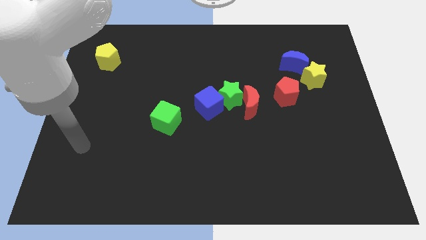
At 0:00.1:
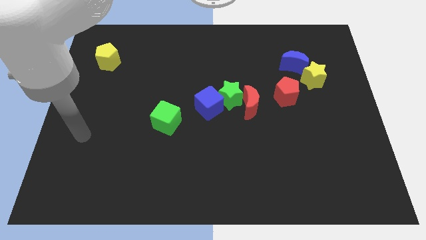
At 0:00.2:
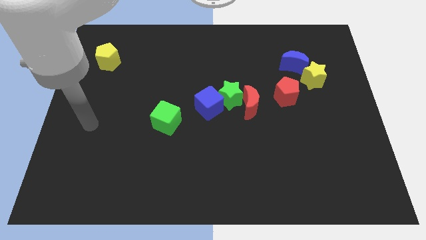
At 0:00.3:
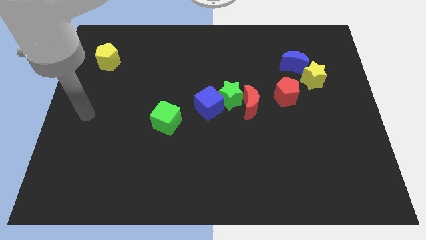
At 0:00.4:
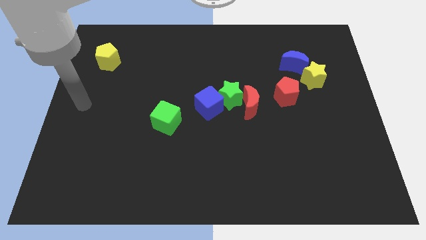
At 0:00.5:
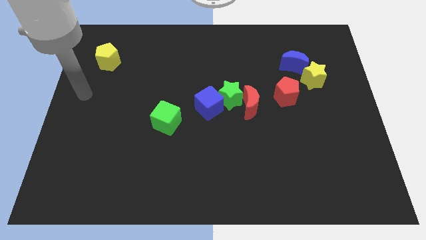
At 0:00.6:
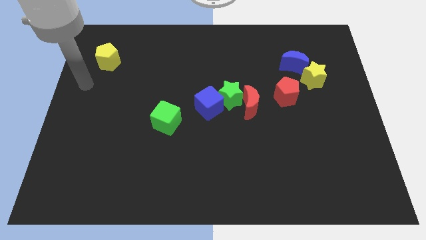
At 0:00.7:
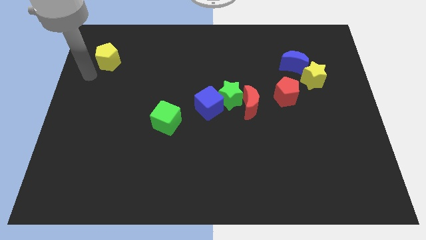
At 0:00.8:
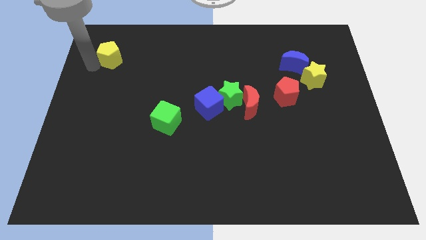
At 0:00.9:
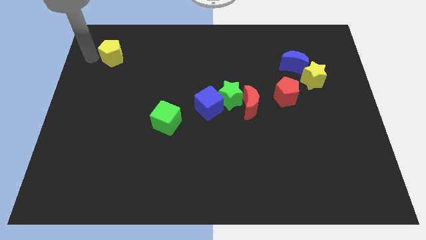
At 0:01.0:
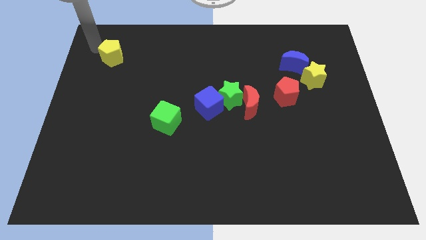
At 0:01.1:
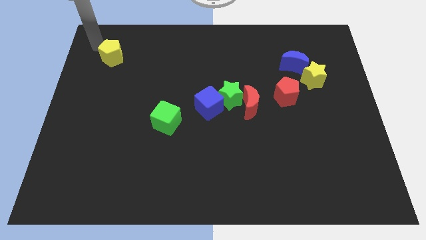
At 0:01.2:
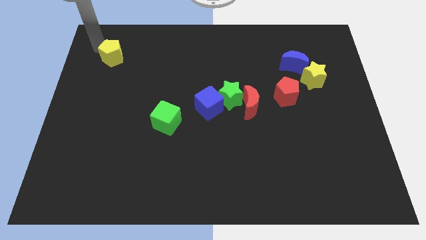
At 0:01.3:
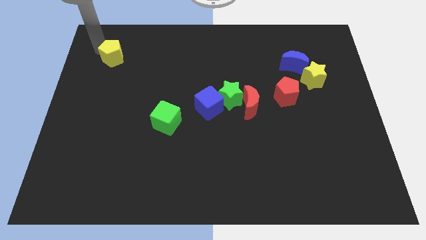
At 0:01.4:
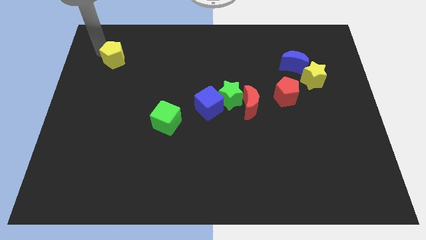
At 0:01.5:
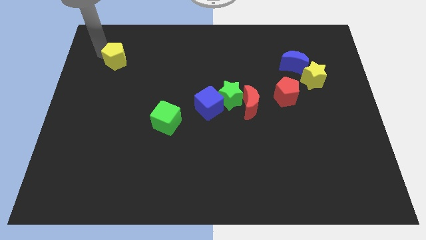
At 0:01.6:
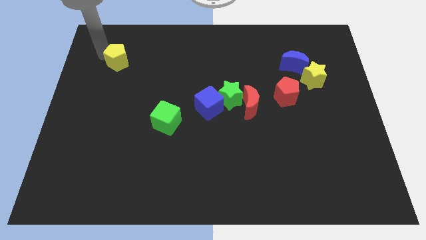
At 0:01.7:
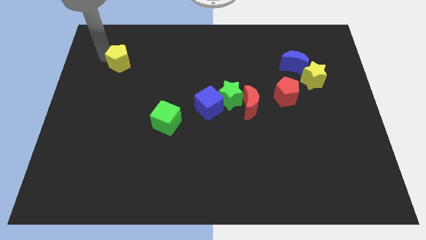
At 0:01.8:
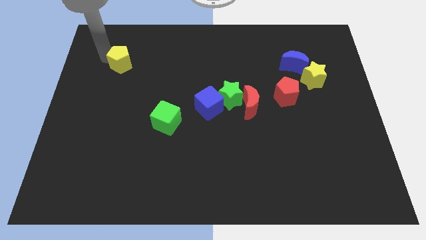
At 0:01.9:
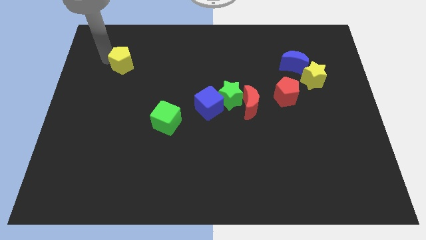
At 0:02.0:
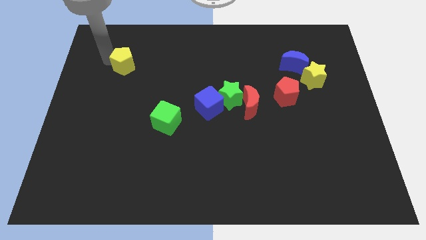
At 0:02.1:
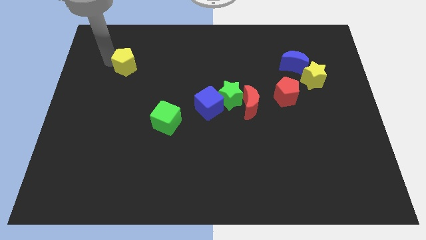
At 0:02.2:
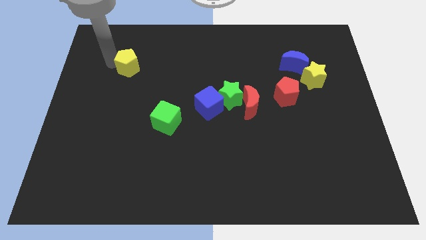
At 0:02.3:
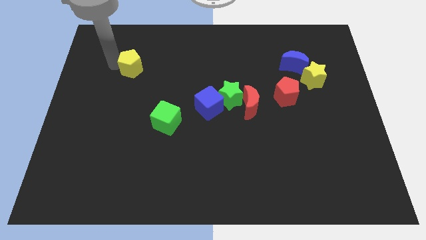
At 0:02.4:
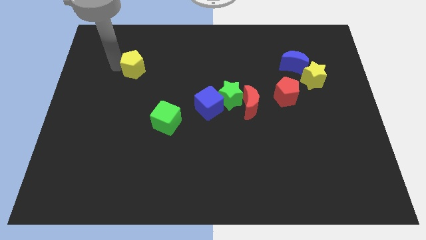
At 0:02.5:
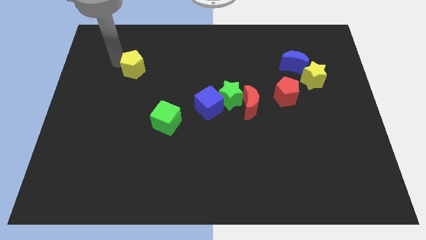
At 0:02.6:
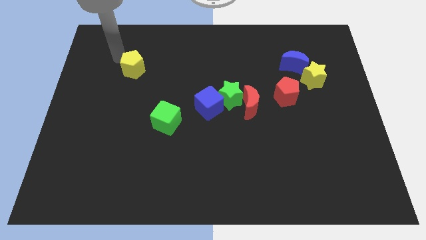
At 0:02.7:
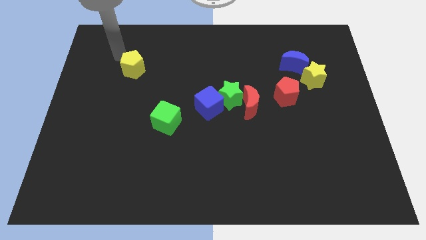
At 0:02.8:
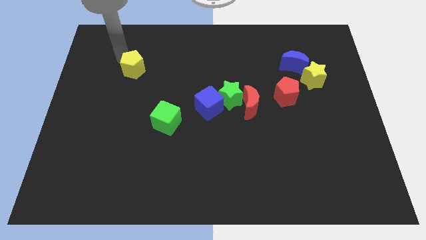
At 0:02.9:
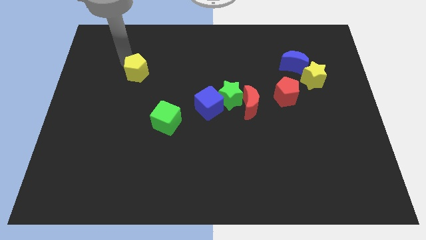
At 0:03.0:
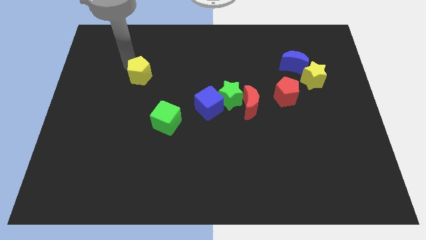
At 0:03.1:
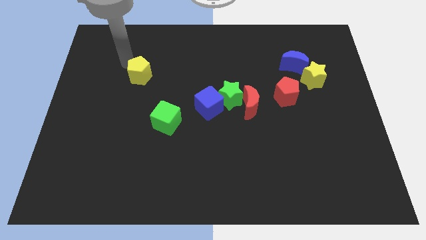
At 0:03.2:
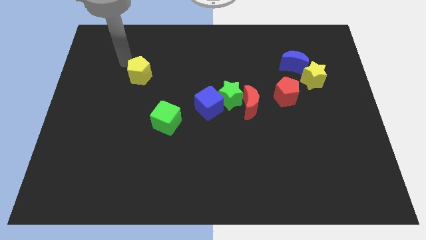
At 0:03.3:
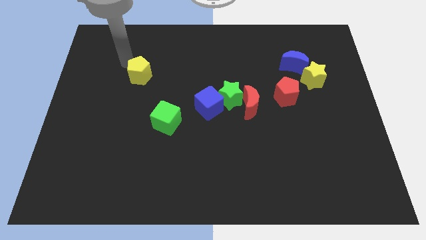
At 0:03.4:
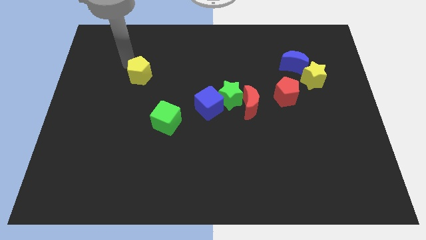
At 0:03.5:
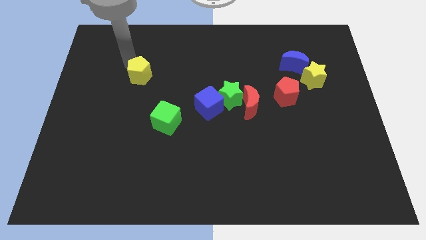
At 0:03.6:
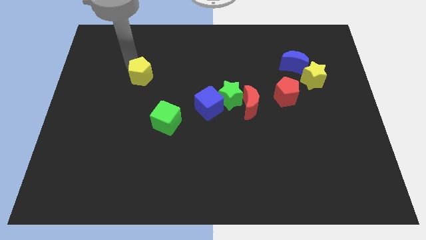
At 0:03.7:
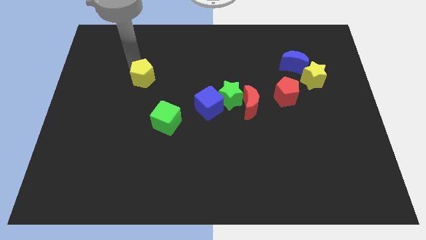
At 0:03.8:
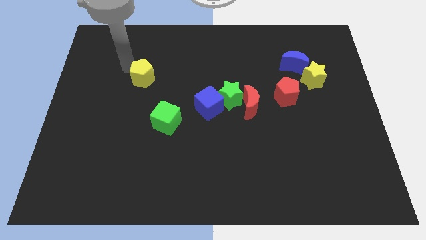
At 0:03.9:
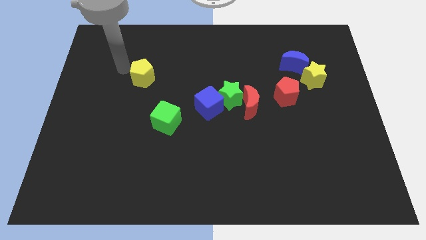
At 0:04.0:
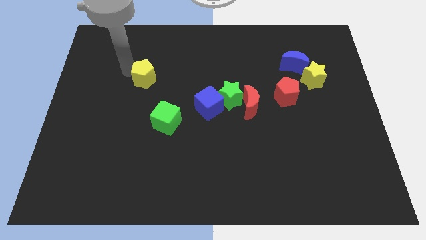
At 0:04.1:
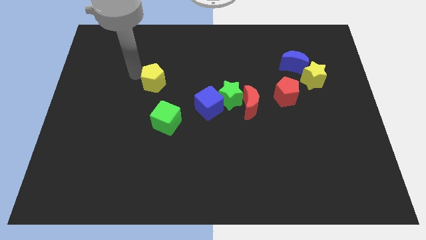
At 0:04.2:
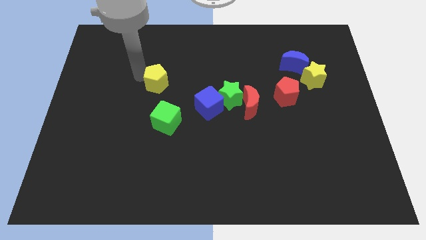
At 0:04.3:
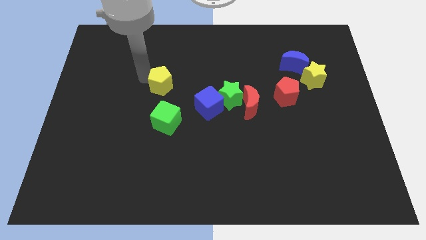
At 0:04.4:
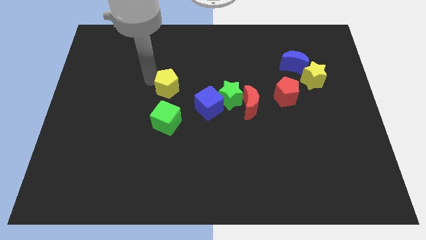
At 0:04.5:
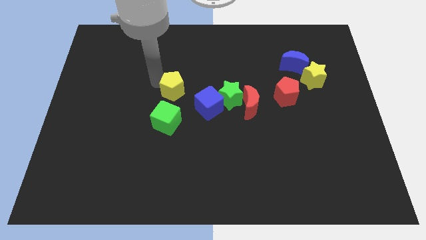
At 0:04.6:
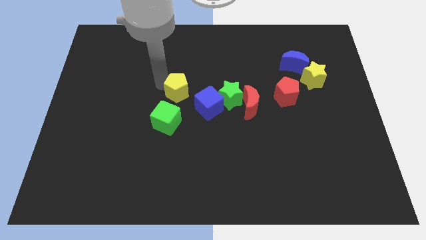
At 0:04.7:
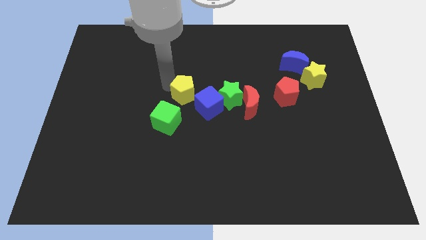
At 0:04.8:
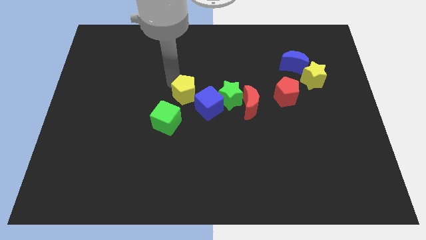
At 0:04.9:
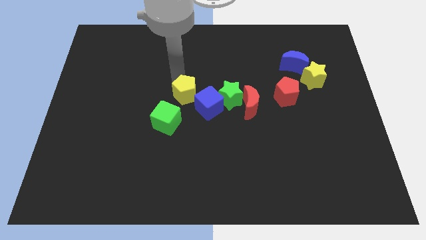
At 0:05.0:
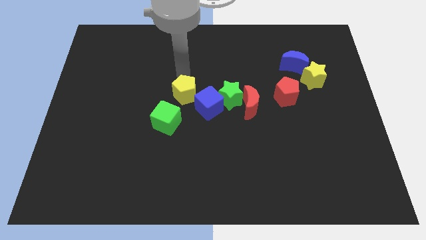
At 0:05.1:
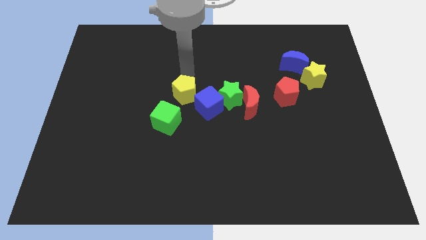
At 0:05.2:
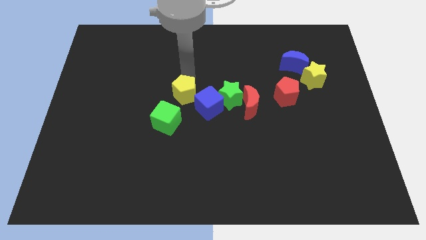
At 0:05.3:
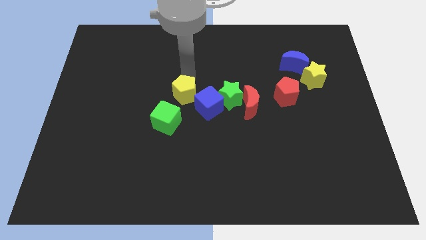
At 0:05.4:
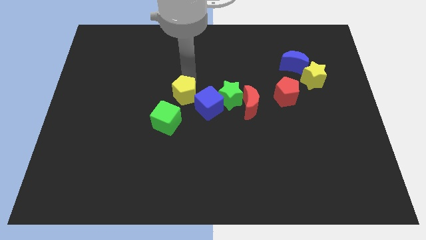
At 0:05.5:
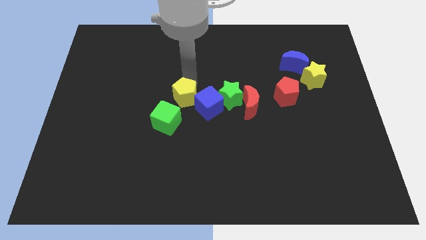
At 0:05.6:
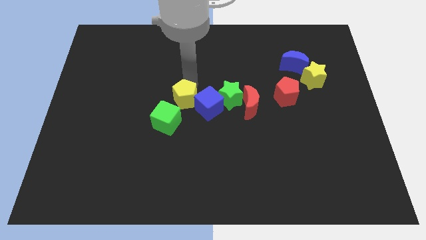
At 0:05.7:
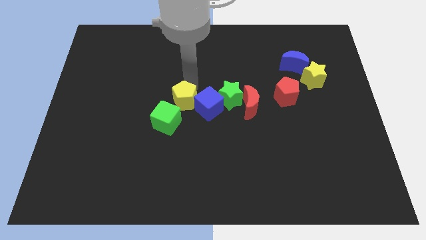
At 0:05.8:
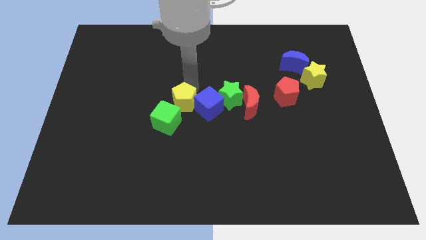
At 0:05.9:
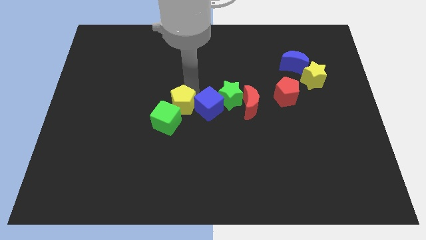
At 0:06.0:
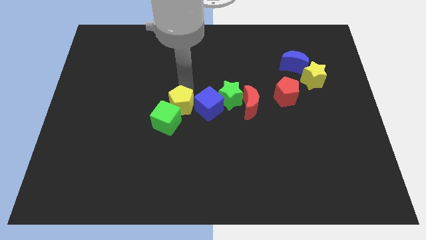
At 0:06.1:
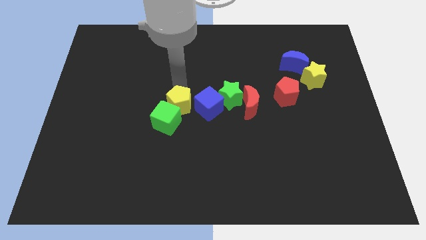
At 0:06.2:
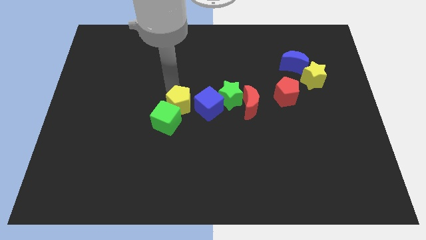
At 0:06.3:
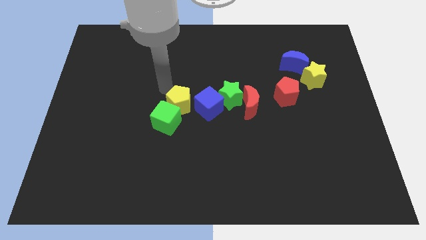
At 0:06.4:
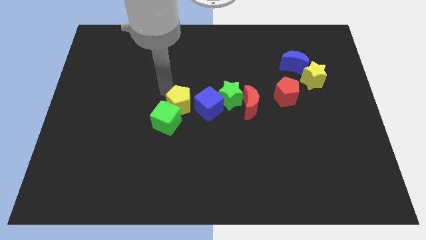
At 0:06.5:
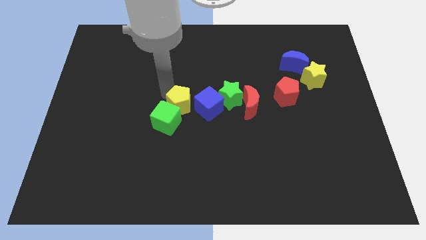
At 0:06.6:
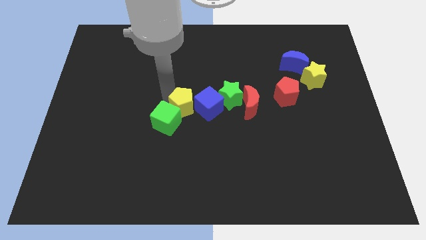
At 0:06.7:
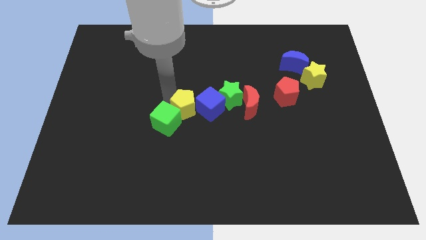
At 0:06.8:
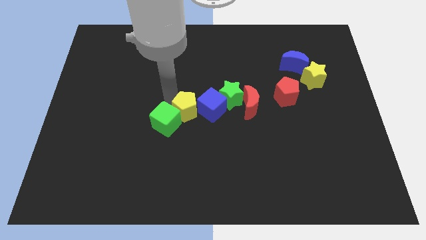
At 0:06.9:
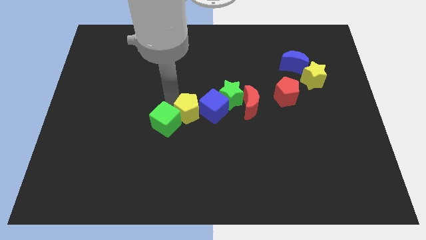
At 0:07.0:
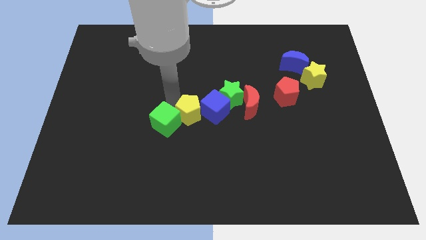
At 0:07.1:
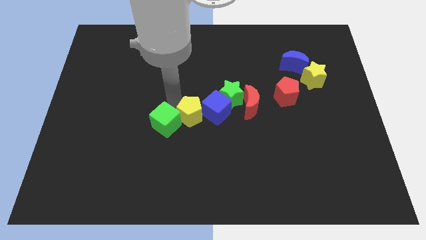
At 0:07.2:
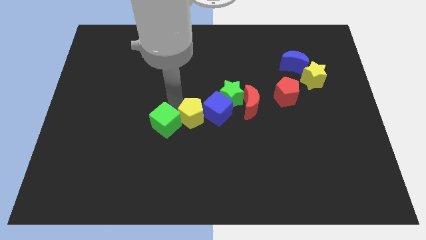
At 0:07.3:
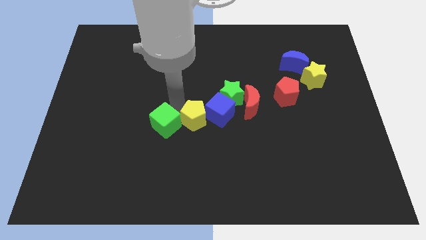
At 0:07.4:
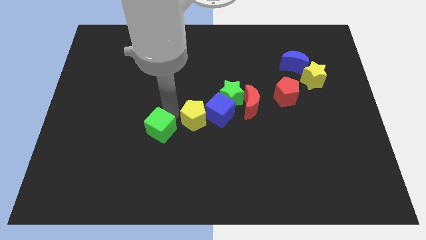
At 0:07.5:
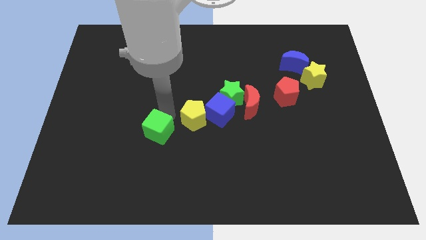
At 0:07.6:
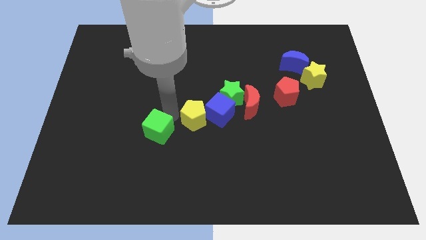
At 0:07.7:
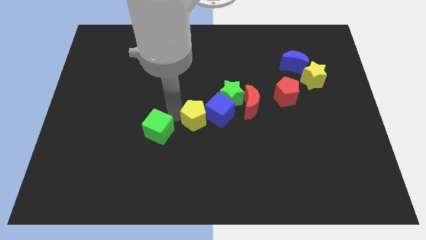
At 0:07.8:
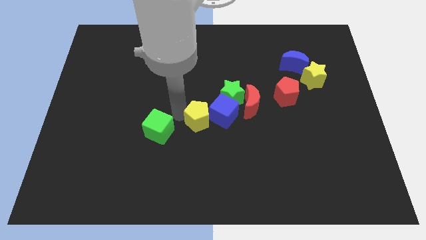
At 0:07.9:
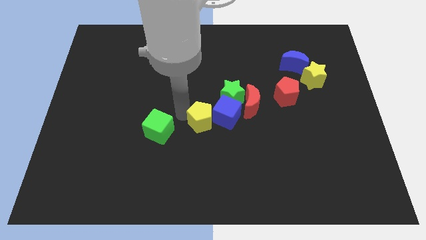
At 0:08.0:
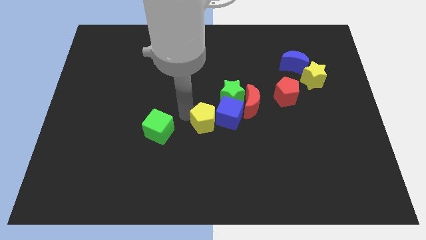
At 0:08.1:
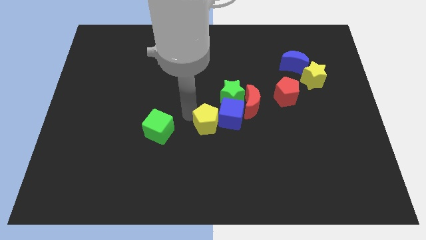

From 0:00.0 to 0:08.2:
move the yellow pentagon to the bottom left of the red moon

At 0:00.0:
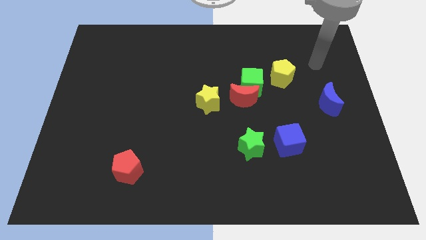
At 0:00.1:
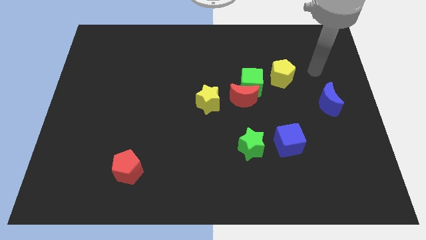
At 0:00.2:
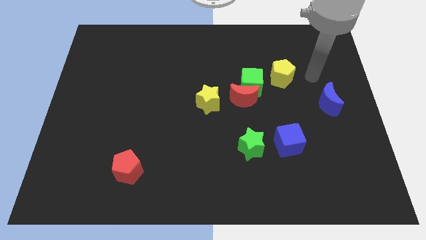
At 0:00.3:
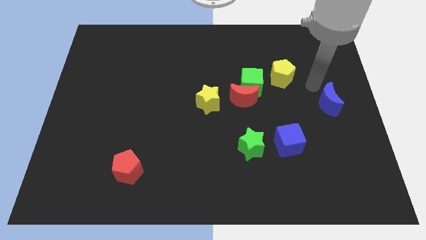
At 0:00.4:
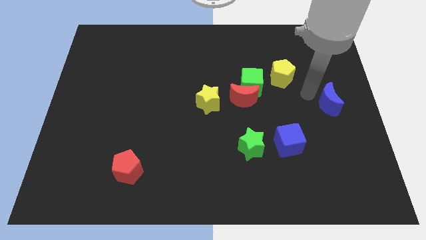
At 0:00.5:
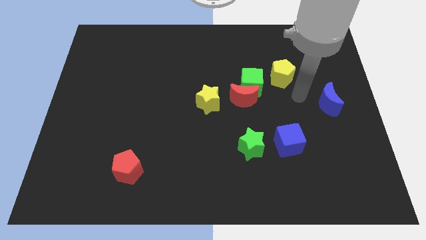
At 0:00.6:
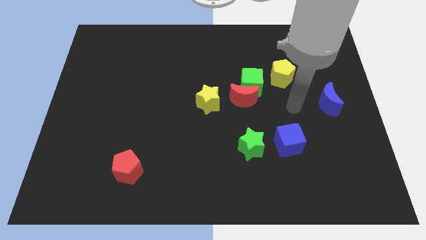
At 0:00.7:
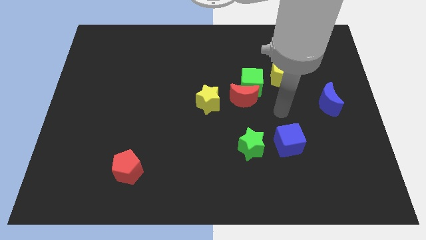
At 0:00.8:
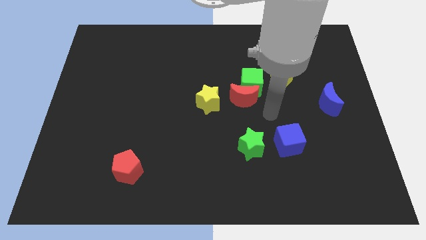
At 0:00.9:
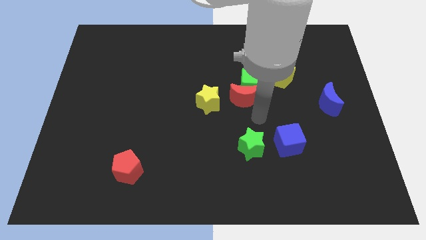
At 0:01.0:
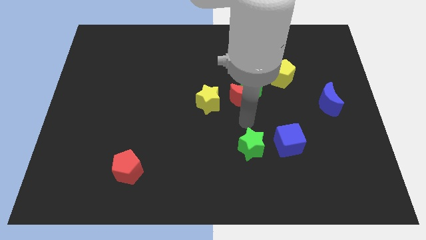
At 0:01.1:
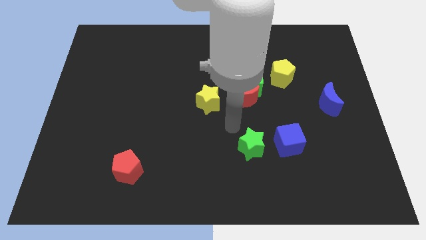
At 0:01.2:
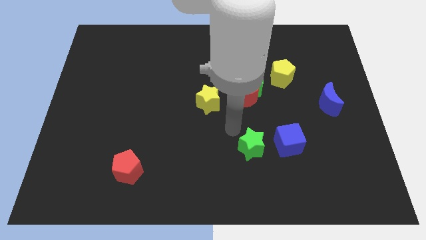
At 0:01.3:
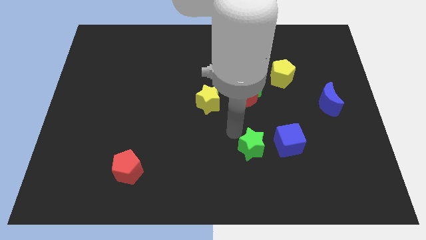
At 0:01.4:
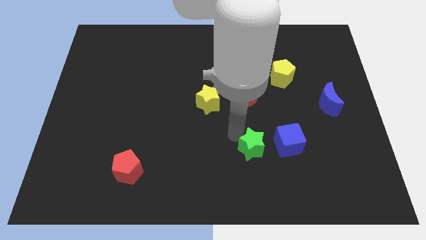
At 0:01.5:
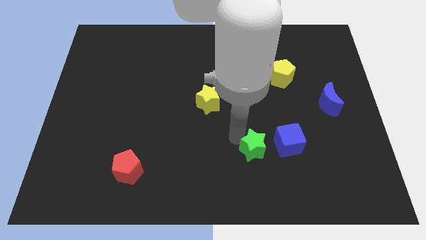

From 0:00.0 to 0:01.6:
push the green star to the bottom left of the blue cube
